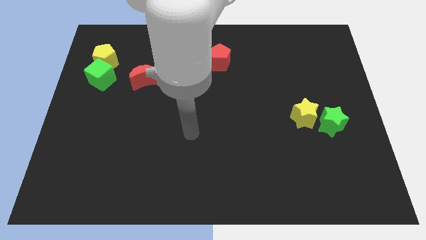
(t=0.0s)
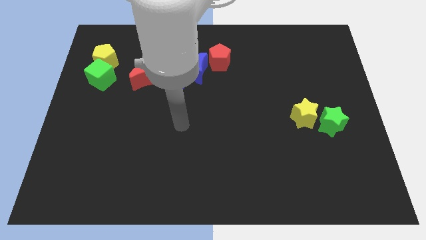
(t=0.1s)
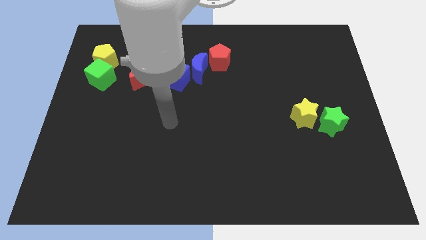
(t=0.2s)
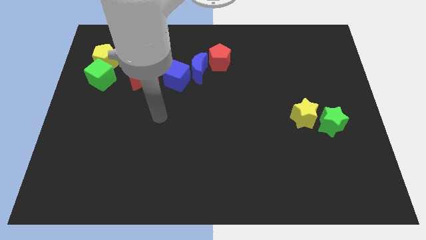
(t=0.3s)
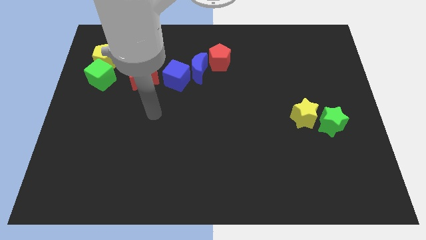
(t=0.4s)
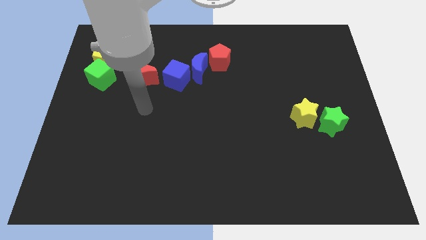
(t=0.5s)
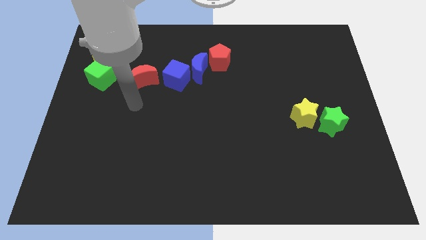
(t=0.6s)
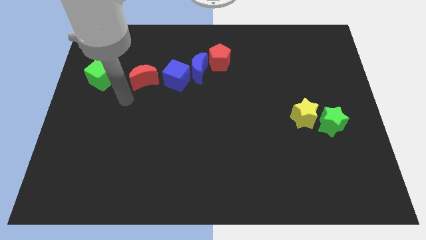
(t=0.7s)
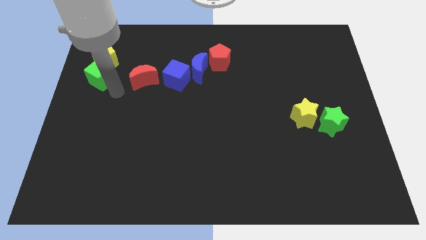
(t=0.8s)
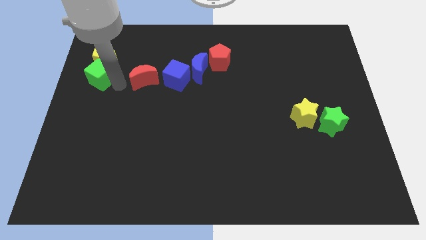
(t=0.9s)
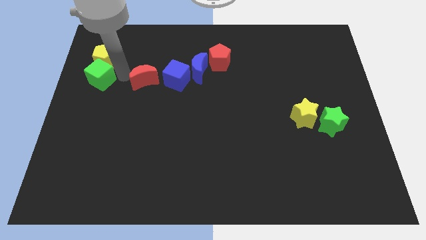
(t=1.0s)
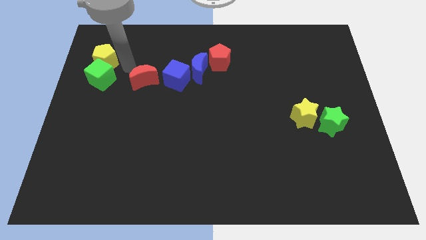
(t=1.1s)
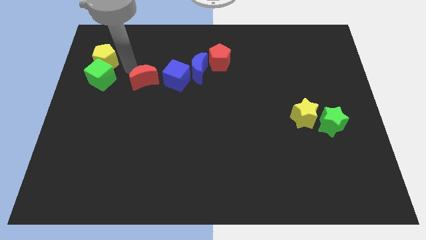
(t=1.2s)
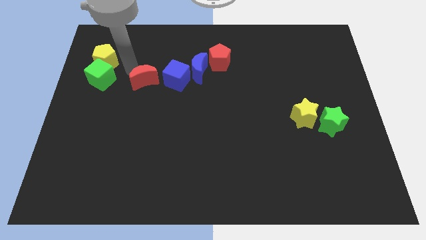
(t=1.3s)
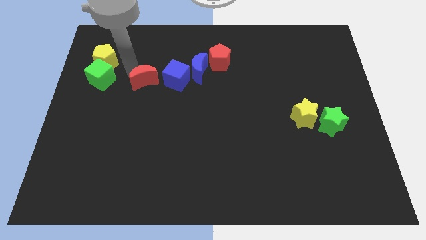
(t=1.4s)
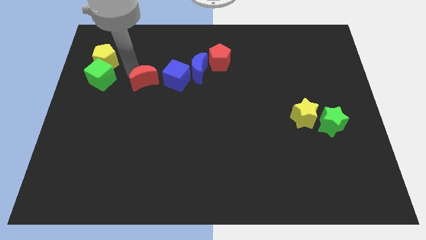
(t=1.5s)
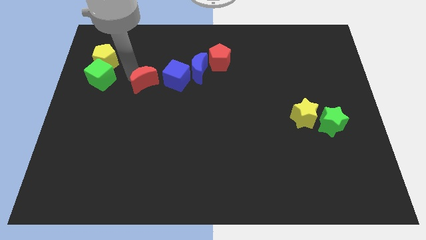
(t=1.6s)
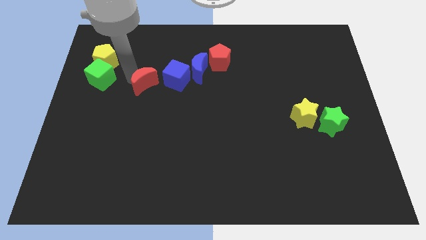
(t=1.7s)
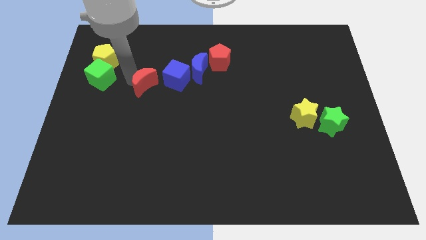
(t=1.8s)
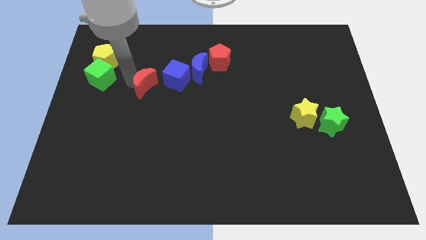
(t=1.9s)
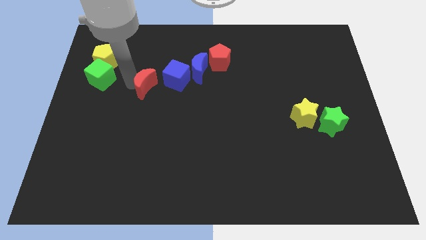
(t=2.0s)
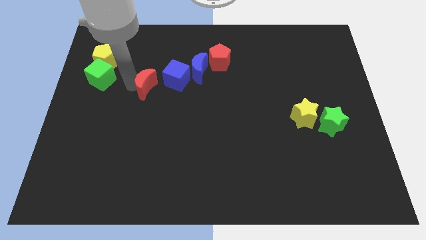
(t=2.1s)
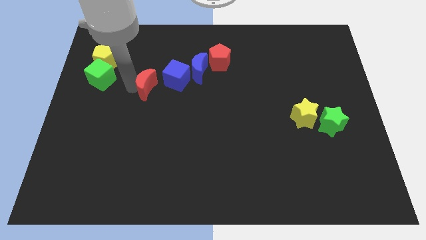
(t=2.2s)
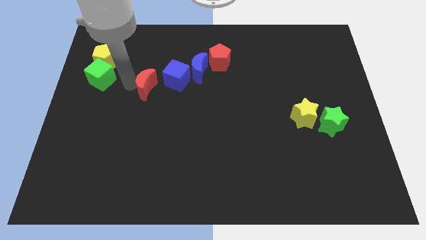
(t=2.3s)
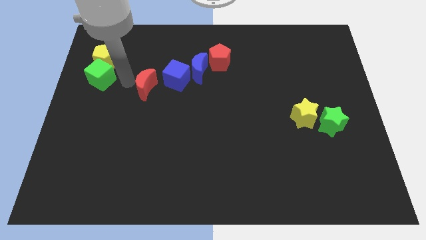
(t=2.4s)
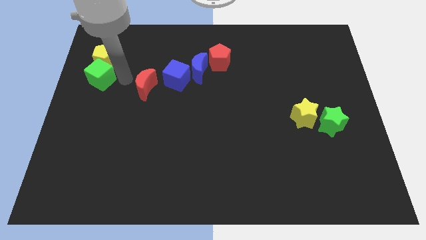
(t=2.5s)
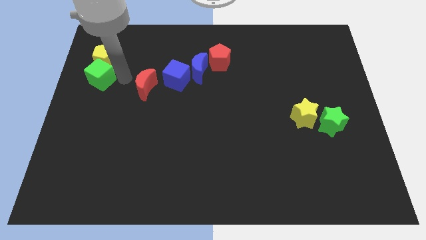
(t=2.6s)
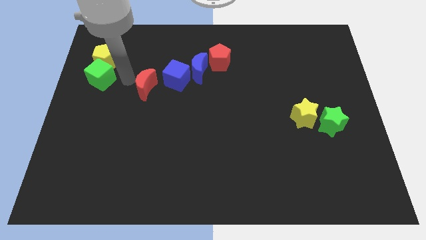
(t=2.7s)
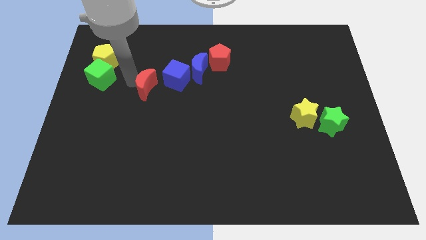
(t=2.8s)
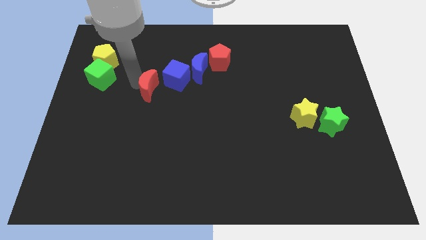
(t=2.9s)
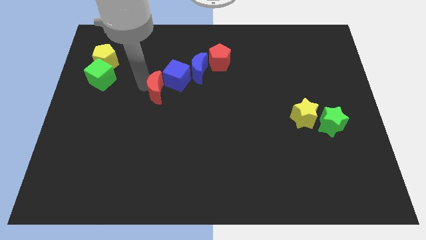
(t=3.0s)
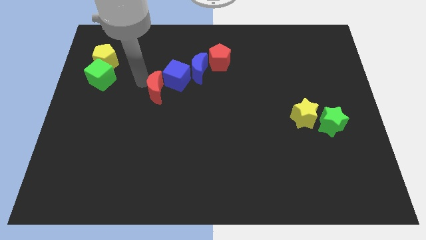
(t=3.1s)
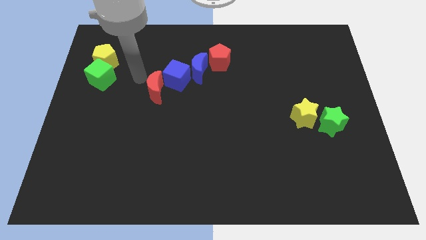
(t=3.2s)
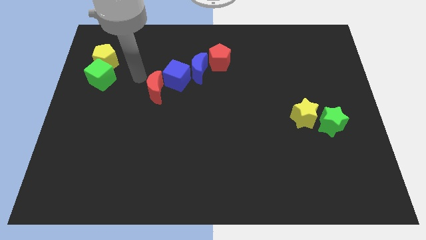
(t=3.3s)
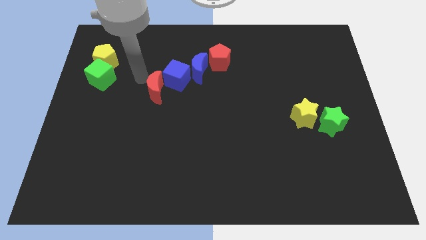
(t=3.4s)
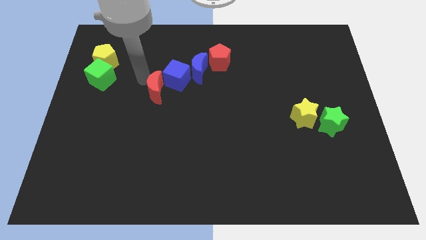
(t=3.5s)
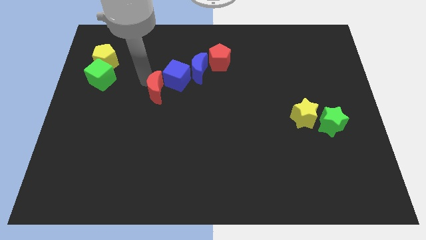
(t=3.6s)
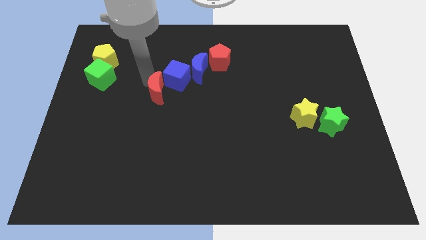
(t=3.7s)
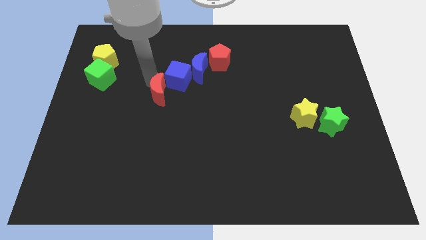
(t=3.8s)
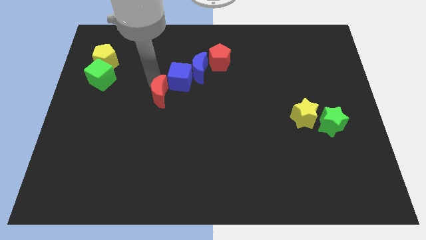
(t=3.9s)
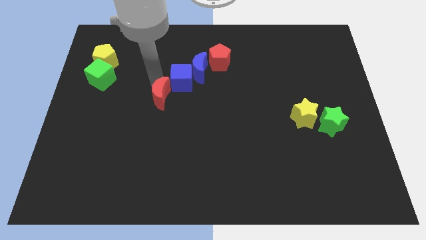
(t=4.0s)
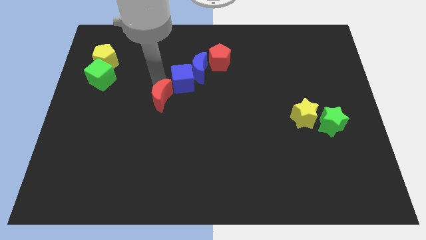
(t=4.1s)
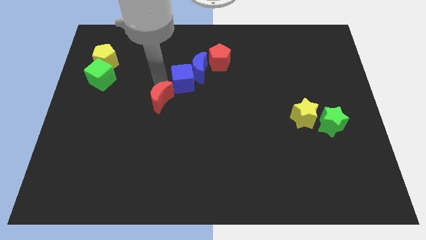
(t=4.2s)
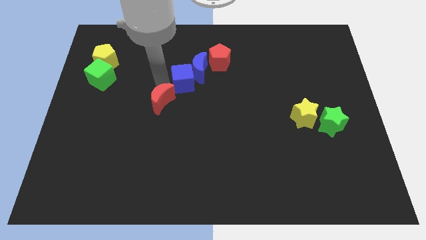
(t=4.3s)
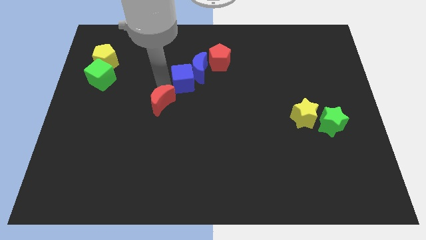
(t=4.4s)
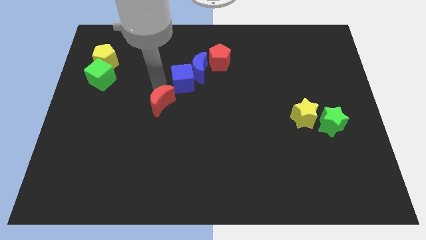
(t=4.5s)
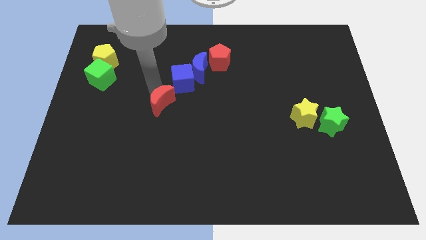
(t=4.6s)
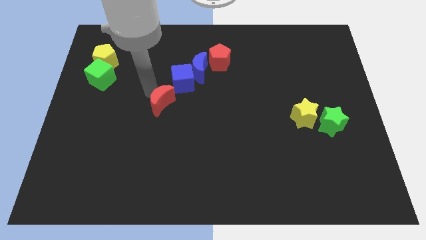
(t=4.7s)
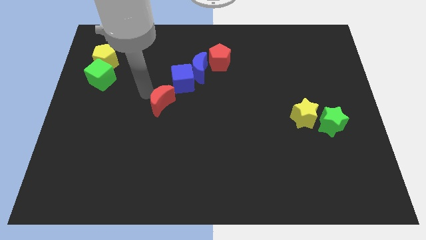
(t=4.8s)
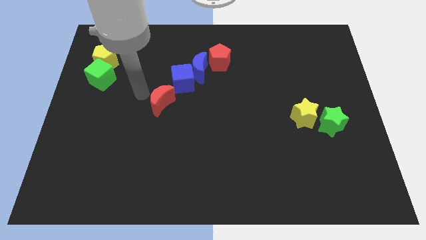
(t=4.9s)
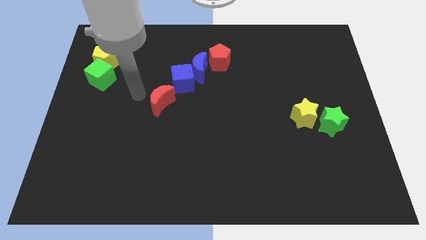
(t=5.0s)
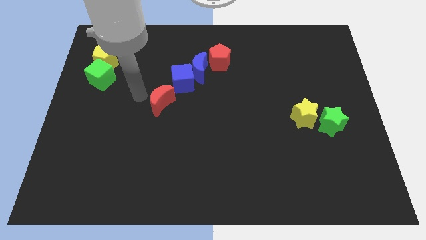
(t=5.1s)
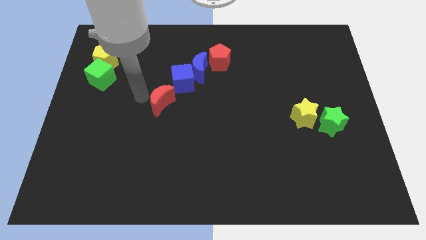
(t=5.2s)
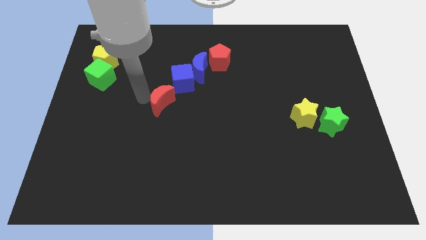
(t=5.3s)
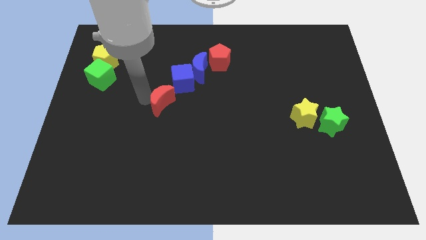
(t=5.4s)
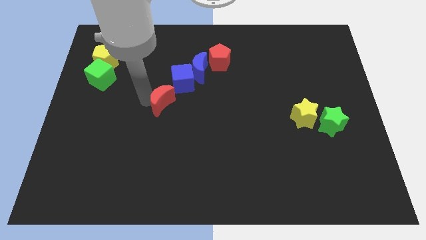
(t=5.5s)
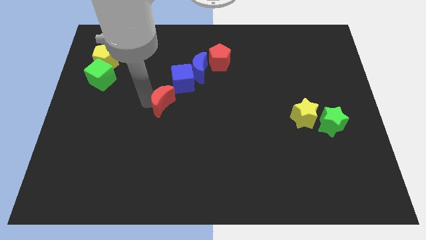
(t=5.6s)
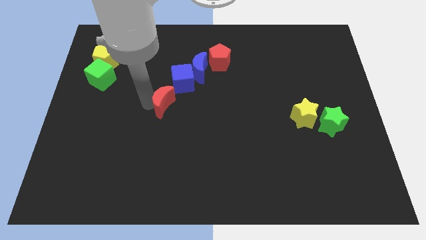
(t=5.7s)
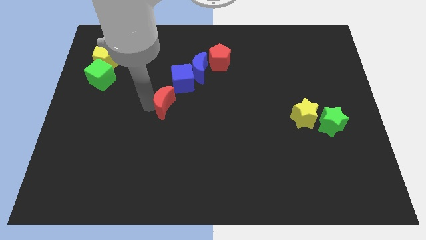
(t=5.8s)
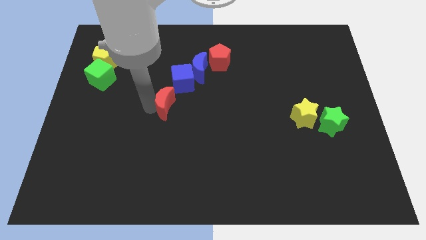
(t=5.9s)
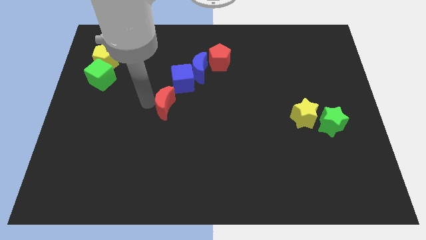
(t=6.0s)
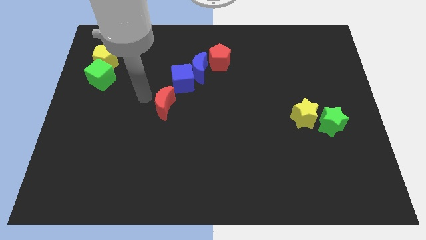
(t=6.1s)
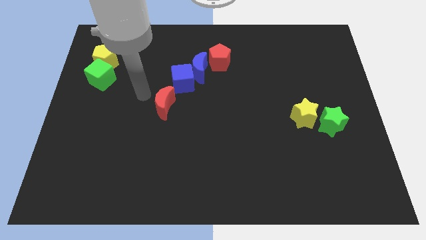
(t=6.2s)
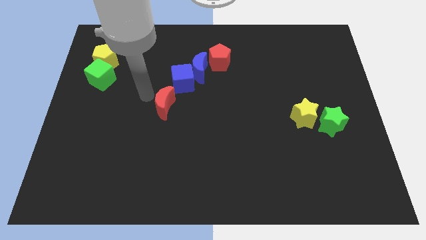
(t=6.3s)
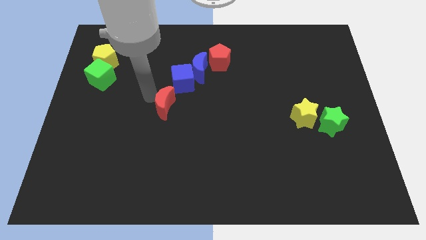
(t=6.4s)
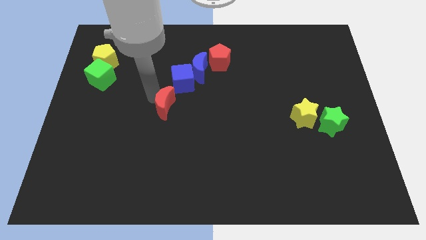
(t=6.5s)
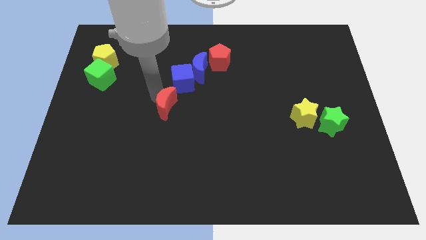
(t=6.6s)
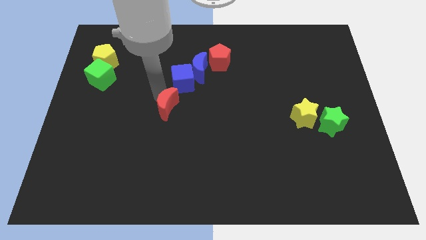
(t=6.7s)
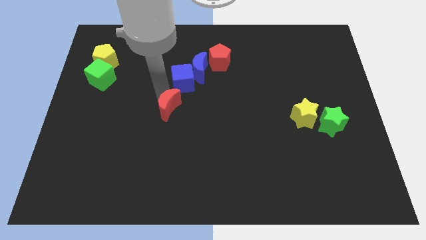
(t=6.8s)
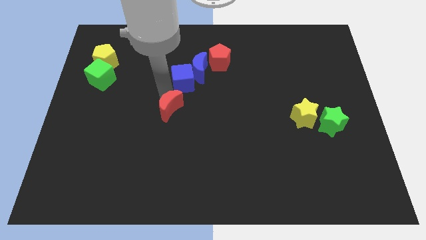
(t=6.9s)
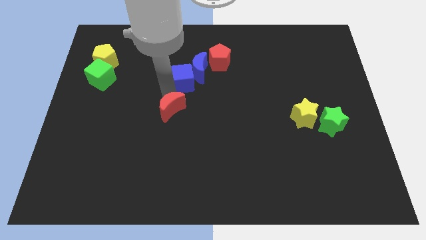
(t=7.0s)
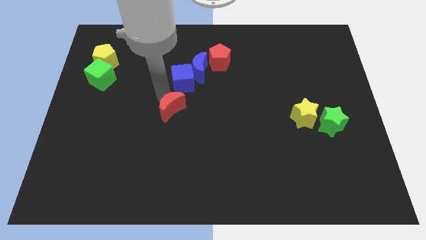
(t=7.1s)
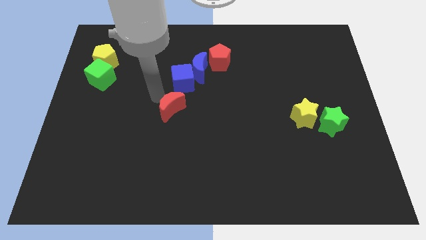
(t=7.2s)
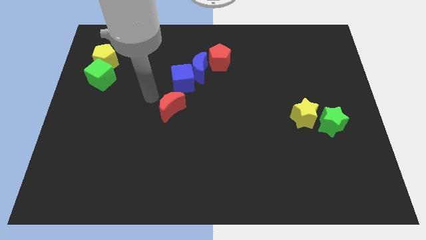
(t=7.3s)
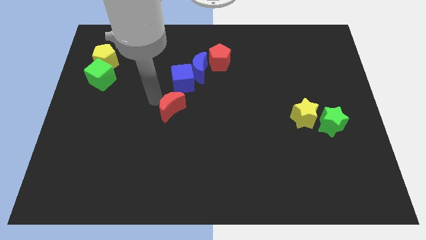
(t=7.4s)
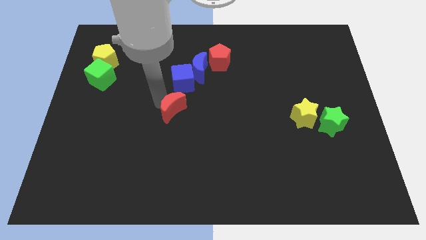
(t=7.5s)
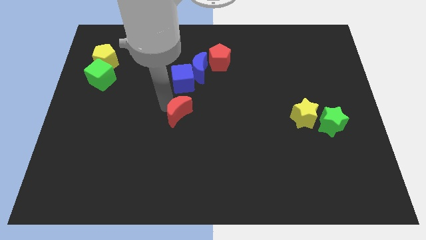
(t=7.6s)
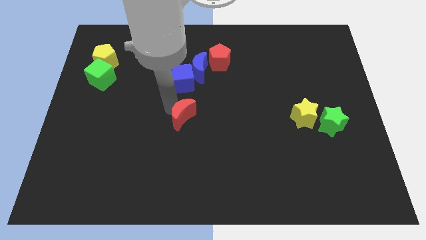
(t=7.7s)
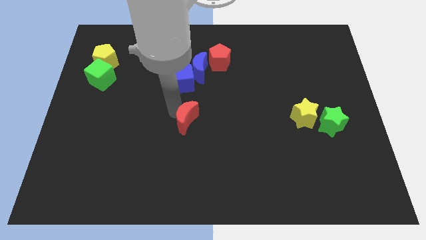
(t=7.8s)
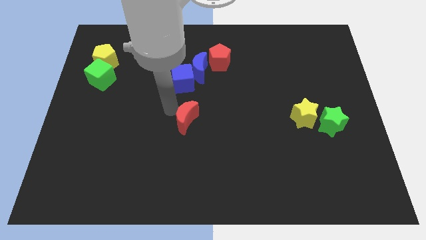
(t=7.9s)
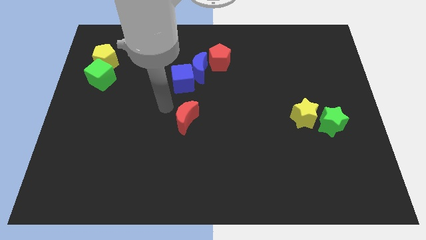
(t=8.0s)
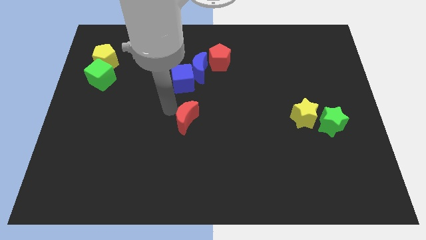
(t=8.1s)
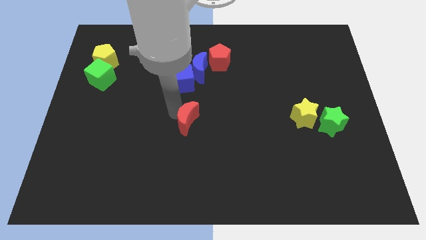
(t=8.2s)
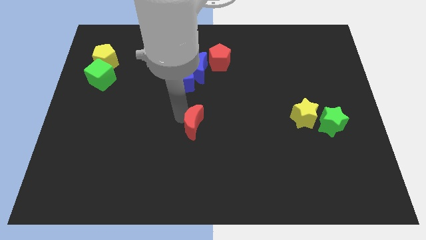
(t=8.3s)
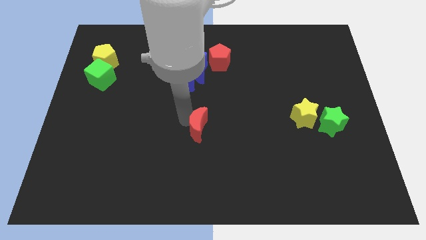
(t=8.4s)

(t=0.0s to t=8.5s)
move the red moon down and right diagonally
